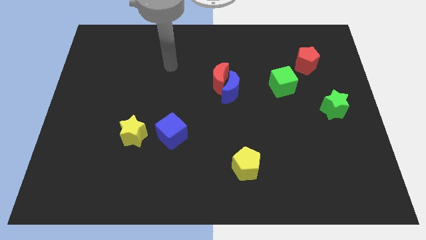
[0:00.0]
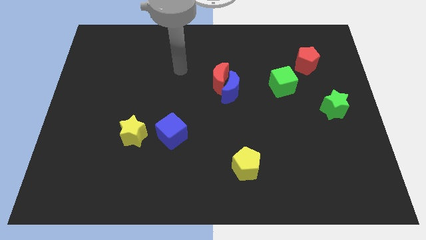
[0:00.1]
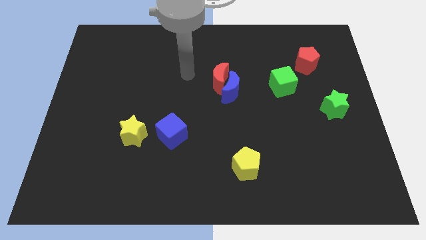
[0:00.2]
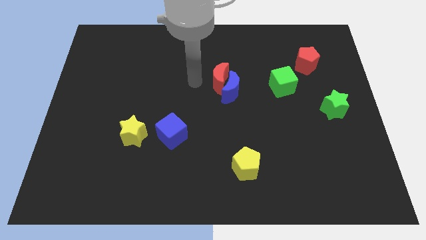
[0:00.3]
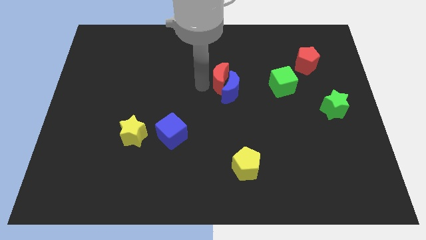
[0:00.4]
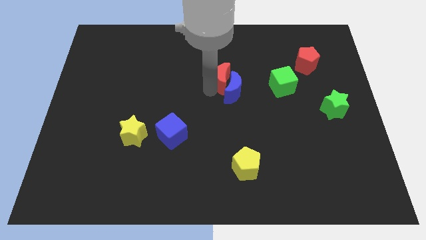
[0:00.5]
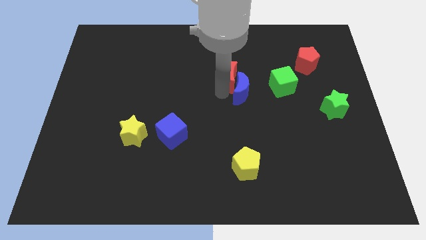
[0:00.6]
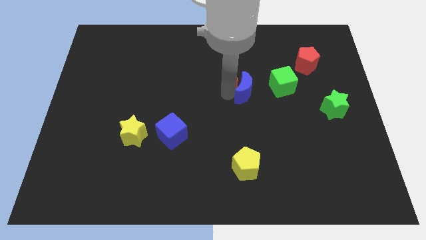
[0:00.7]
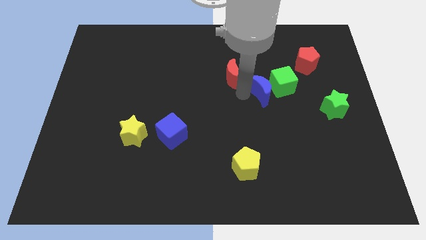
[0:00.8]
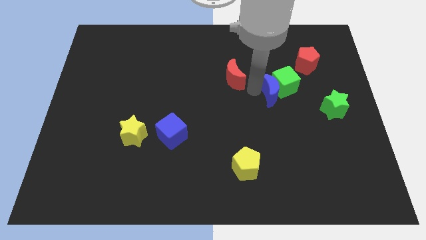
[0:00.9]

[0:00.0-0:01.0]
separate the red moon from the blue moon

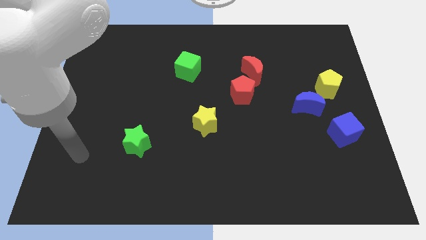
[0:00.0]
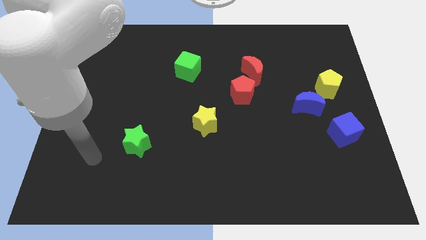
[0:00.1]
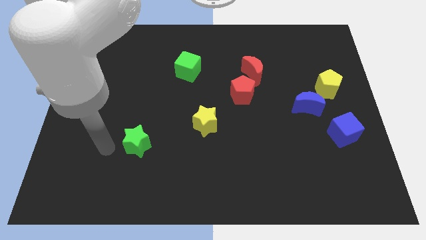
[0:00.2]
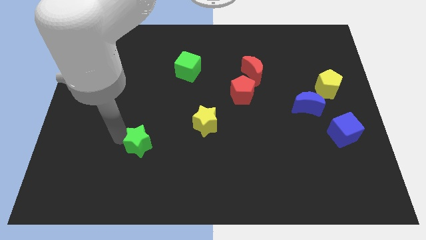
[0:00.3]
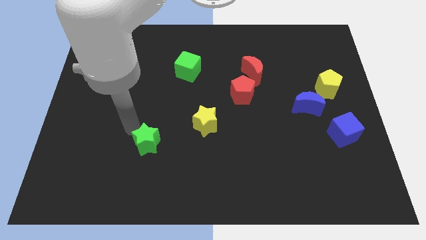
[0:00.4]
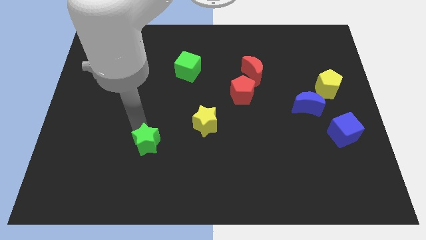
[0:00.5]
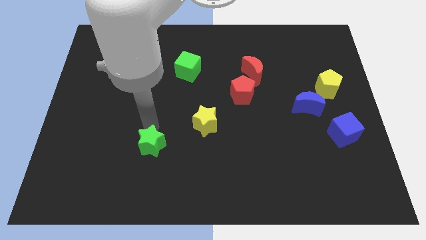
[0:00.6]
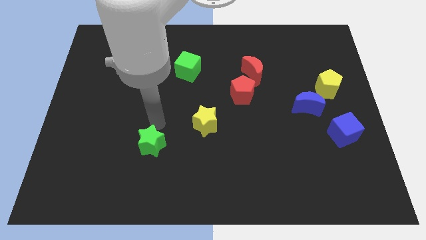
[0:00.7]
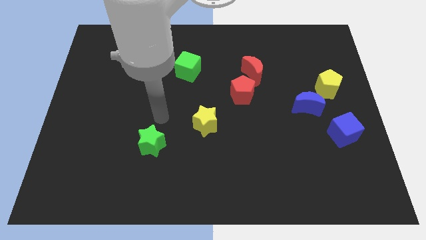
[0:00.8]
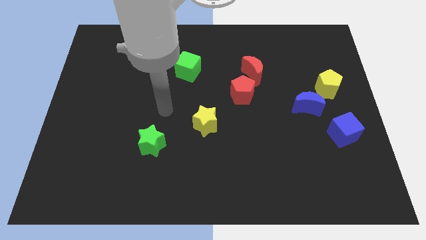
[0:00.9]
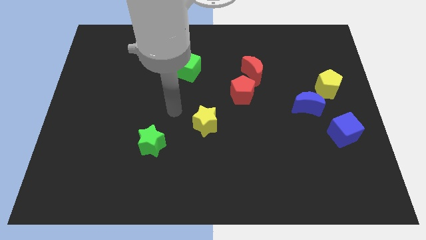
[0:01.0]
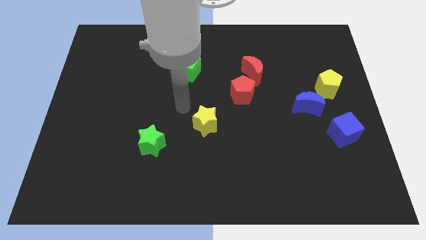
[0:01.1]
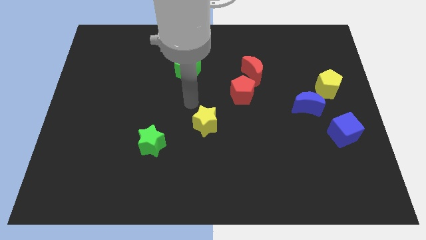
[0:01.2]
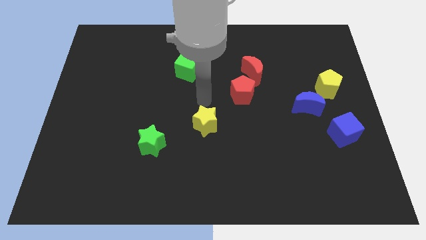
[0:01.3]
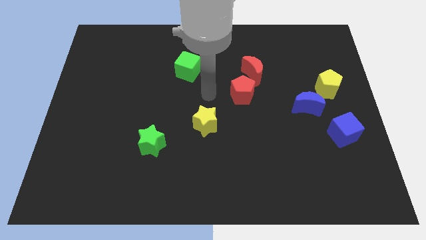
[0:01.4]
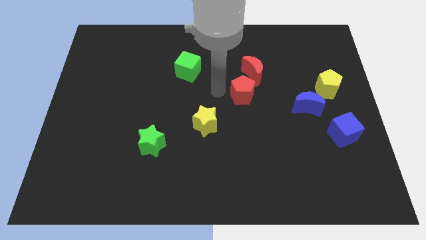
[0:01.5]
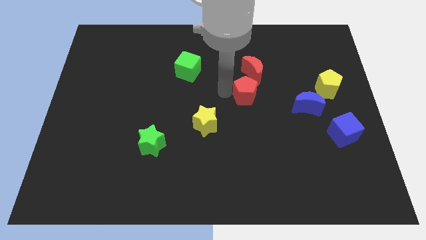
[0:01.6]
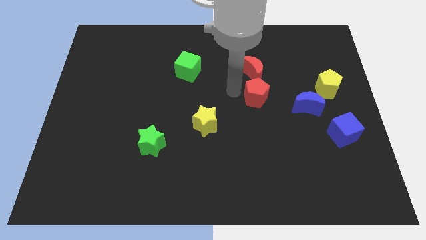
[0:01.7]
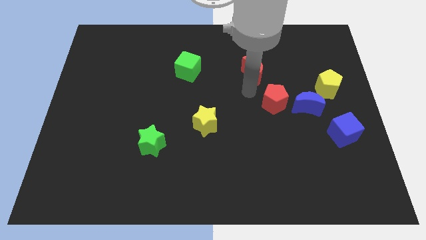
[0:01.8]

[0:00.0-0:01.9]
separate the red moon from the red pentagon

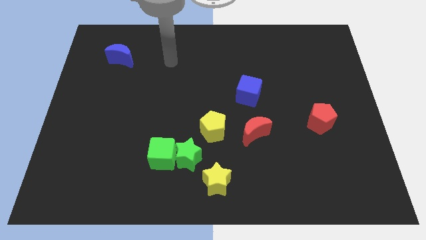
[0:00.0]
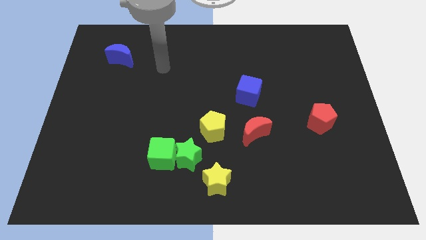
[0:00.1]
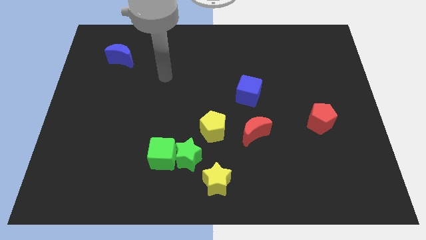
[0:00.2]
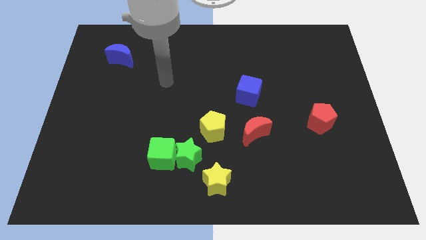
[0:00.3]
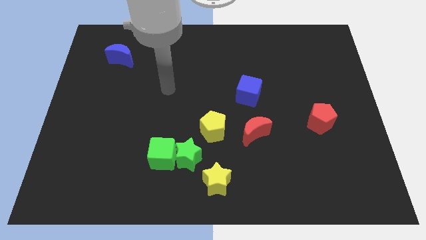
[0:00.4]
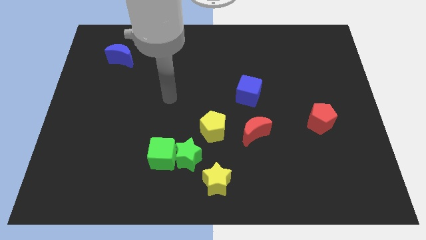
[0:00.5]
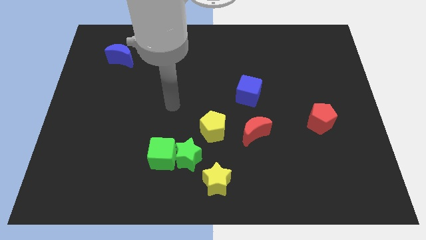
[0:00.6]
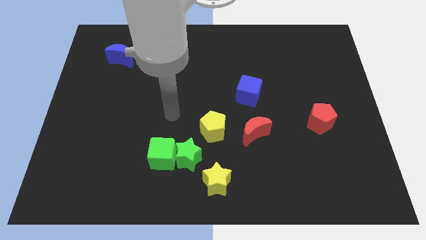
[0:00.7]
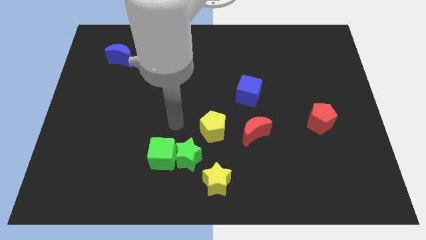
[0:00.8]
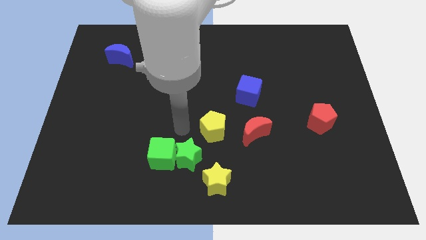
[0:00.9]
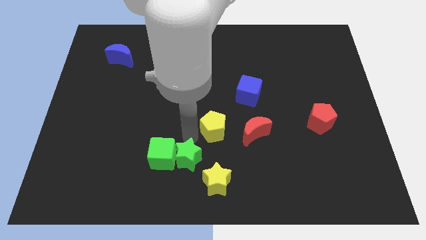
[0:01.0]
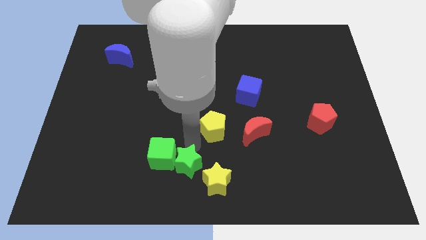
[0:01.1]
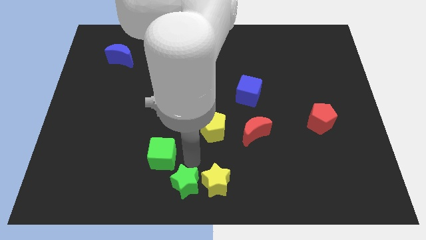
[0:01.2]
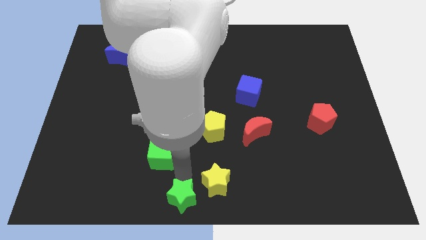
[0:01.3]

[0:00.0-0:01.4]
move the green cube away from the green star

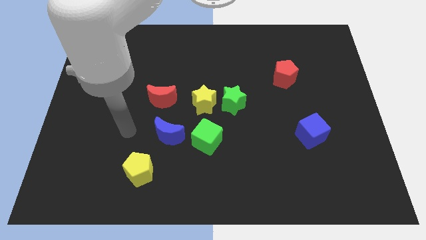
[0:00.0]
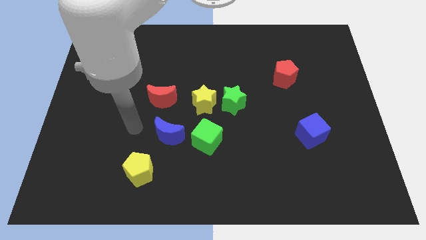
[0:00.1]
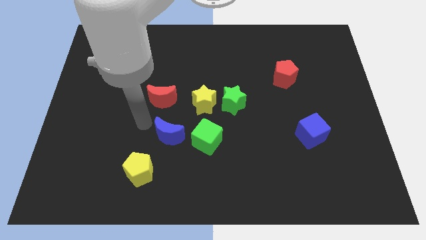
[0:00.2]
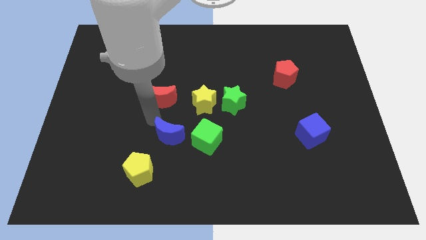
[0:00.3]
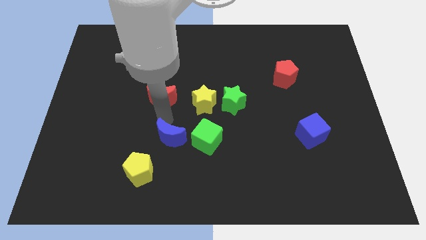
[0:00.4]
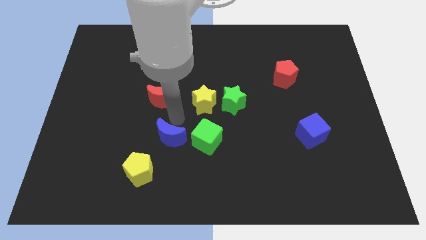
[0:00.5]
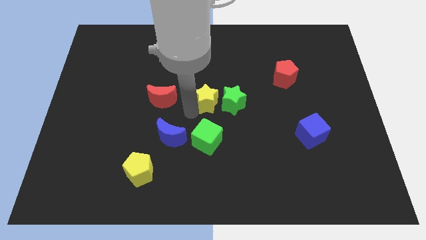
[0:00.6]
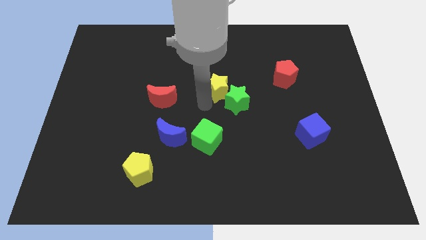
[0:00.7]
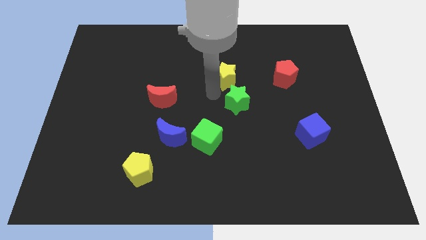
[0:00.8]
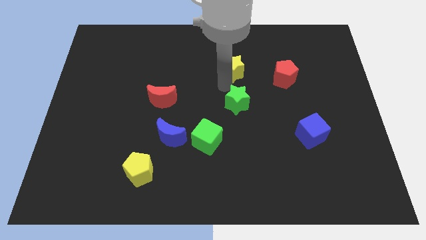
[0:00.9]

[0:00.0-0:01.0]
pull the green star apart from the yellow star

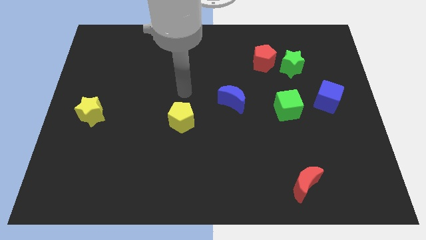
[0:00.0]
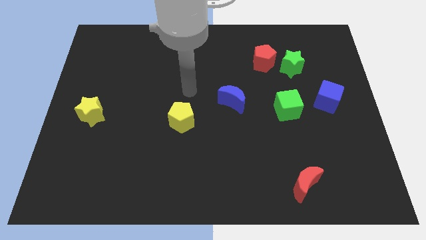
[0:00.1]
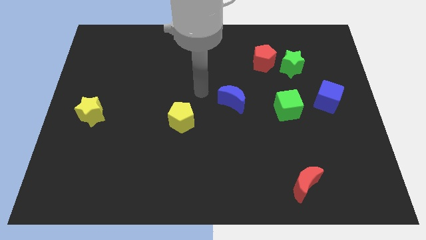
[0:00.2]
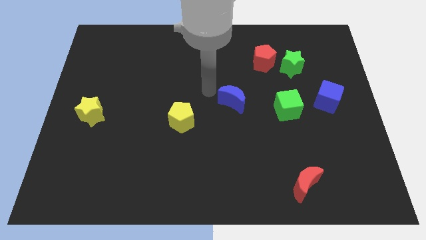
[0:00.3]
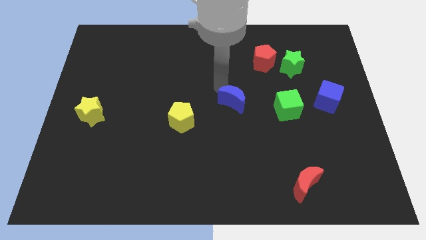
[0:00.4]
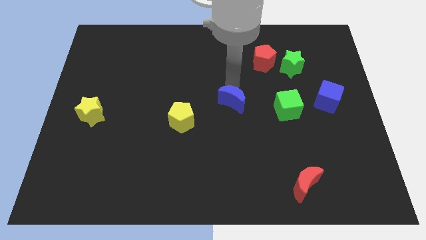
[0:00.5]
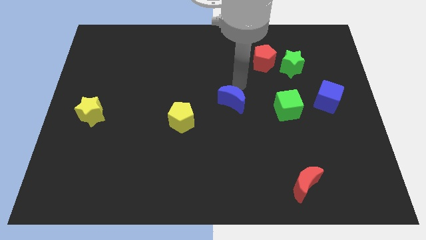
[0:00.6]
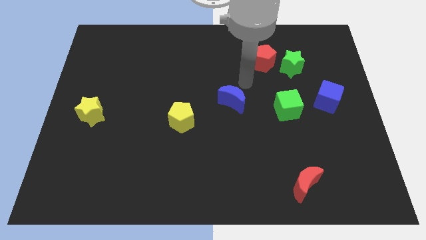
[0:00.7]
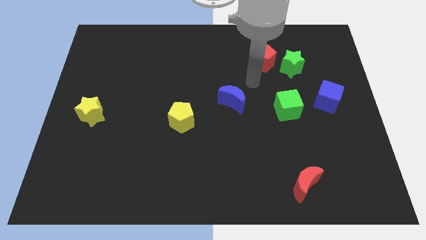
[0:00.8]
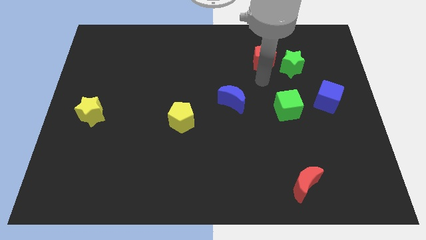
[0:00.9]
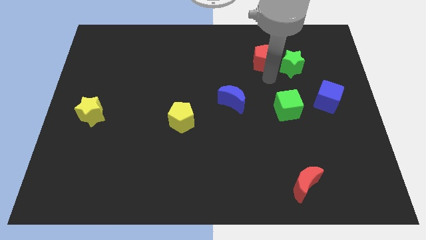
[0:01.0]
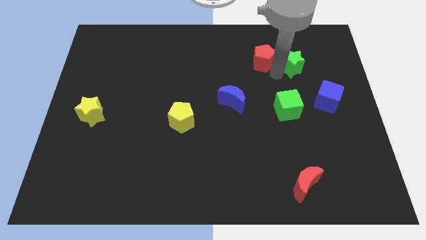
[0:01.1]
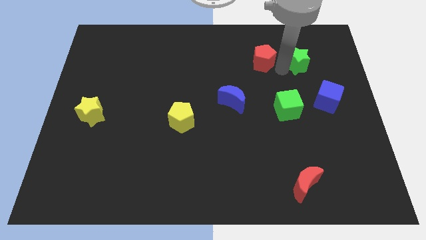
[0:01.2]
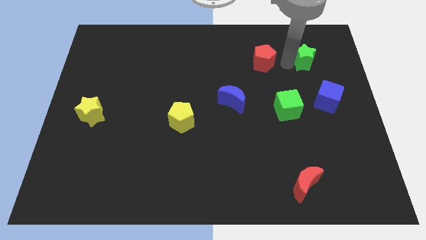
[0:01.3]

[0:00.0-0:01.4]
separate the red pentagon from the green star

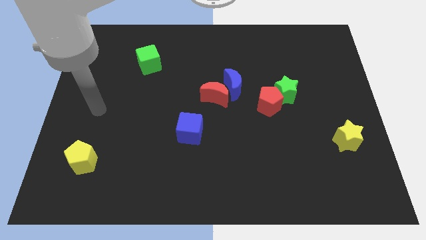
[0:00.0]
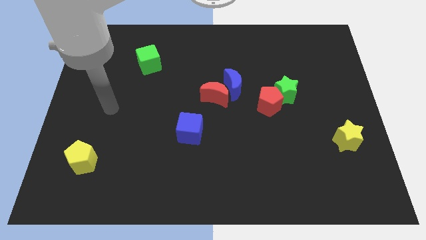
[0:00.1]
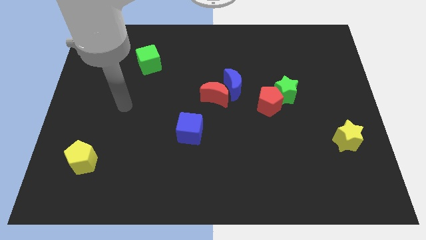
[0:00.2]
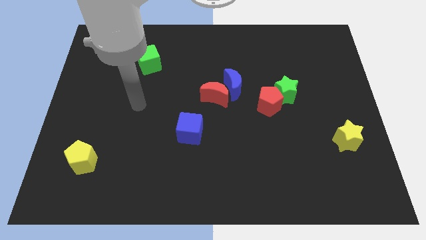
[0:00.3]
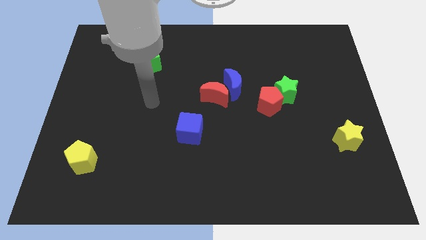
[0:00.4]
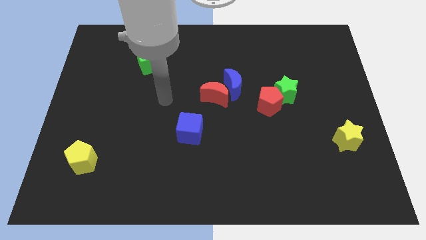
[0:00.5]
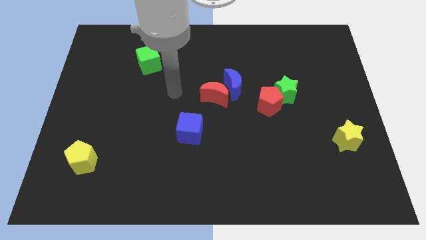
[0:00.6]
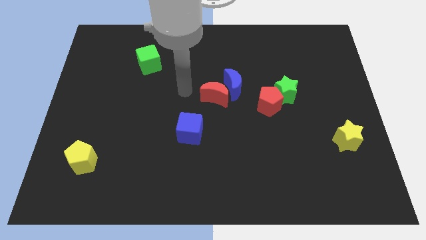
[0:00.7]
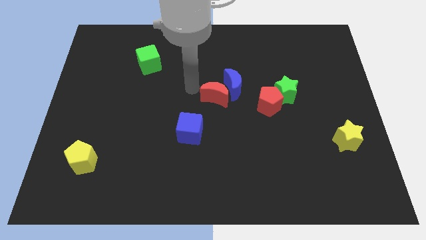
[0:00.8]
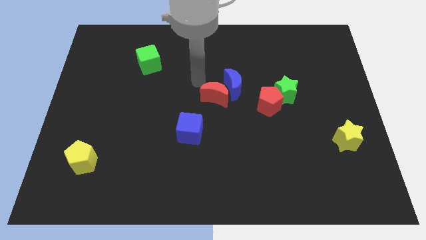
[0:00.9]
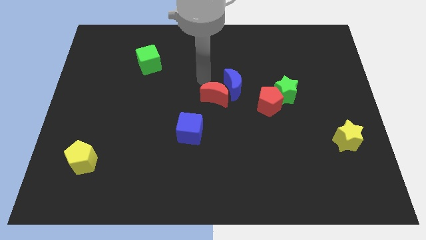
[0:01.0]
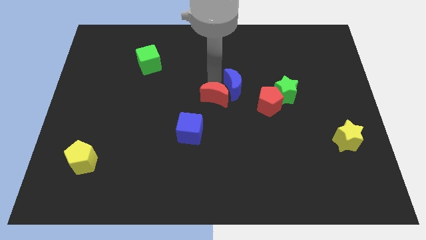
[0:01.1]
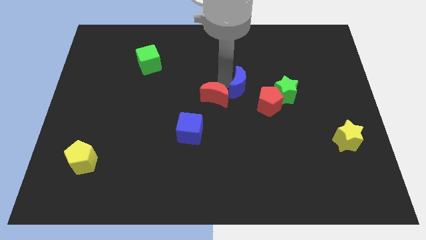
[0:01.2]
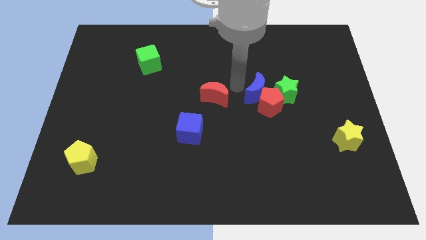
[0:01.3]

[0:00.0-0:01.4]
move the red moon away from the blue moon

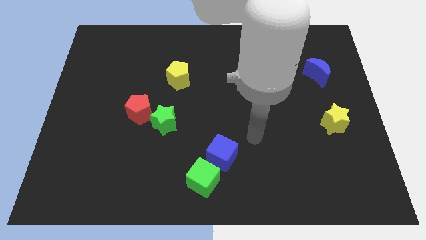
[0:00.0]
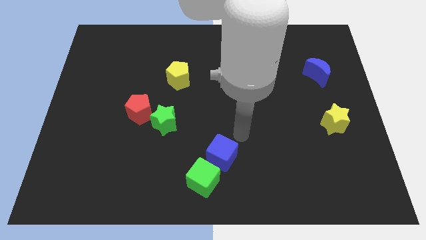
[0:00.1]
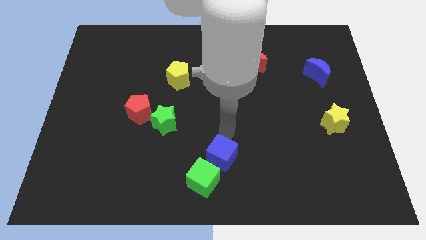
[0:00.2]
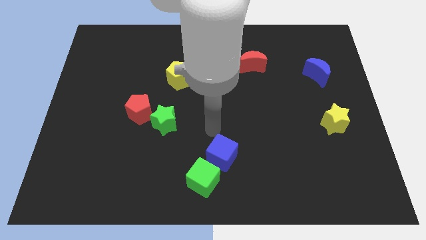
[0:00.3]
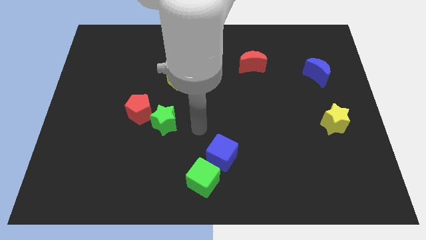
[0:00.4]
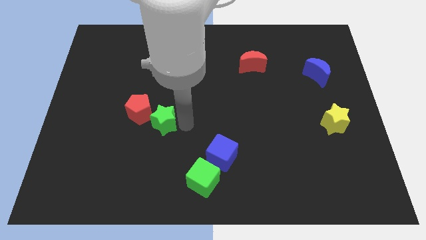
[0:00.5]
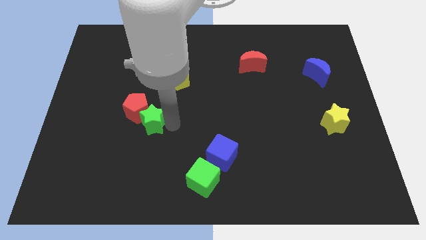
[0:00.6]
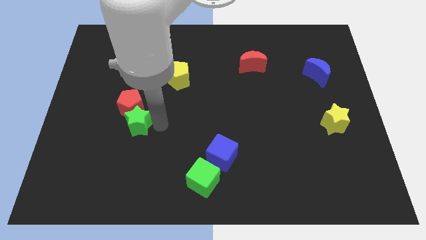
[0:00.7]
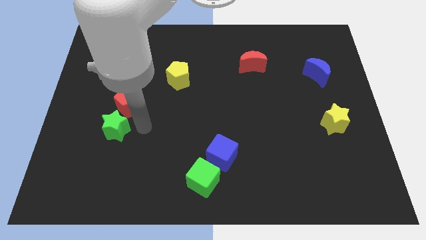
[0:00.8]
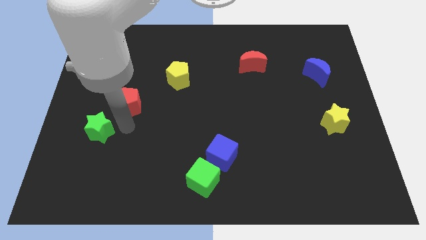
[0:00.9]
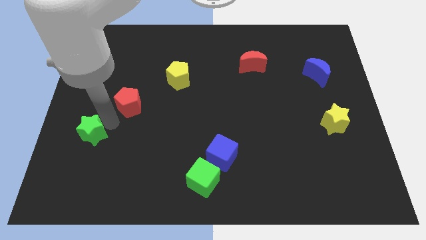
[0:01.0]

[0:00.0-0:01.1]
move the red pentagon away from the green star
